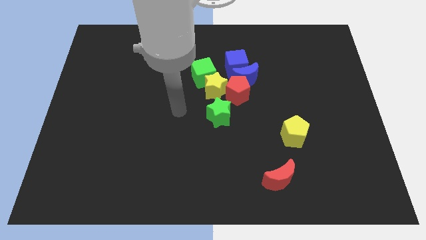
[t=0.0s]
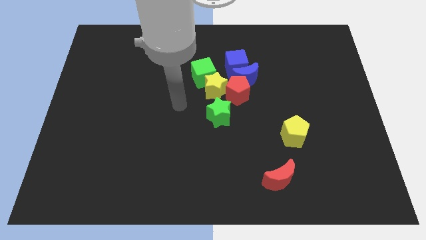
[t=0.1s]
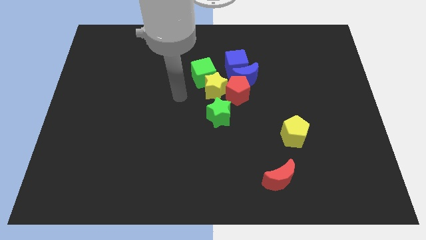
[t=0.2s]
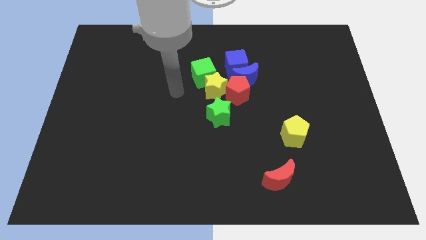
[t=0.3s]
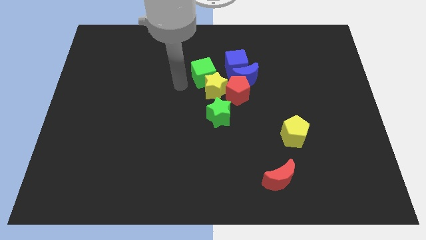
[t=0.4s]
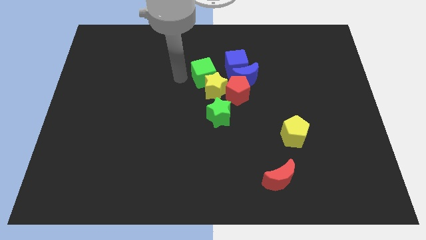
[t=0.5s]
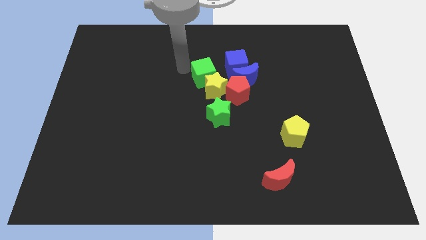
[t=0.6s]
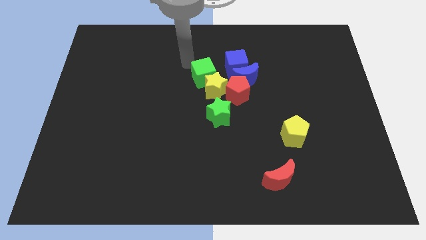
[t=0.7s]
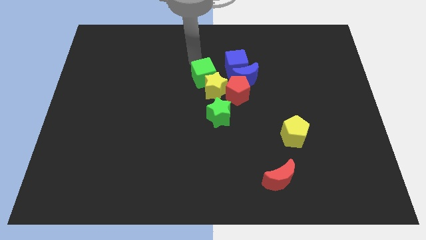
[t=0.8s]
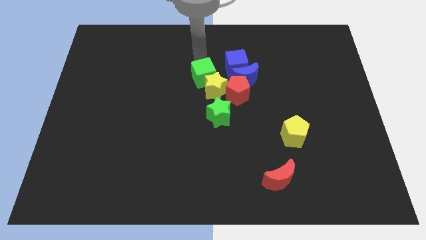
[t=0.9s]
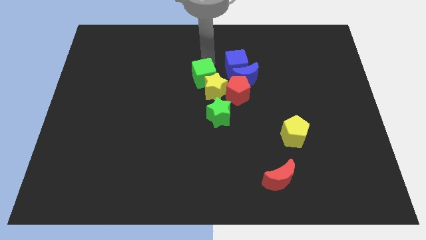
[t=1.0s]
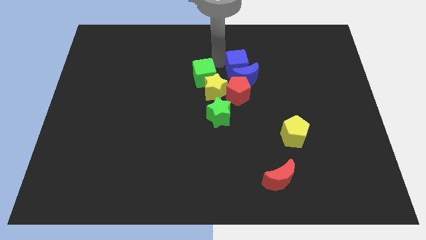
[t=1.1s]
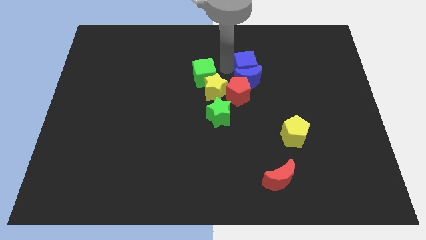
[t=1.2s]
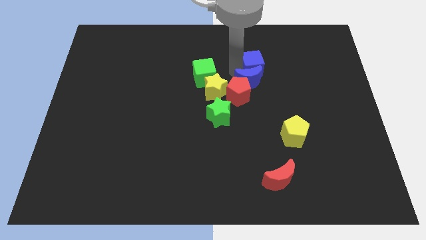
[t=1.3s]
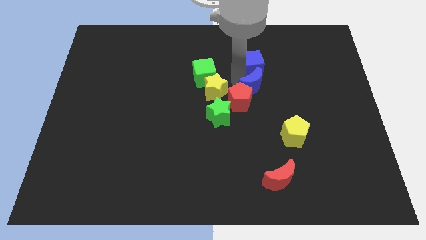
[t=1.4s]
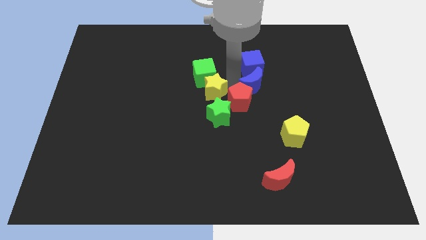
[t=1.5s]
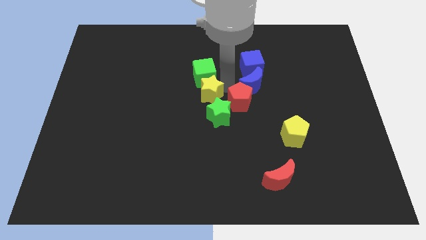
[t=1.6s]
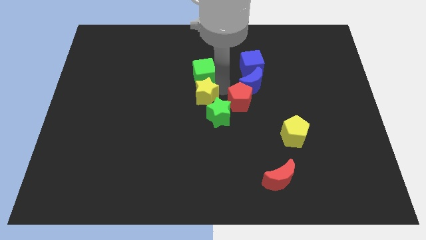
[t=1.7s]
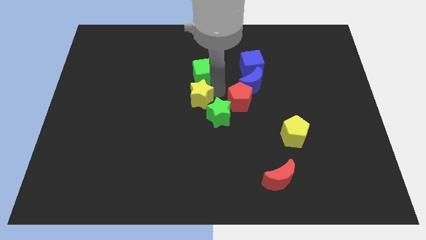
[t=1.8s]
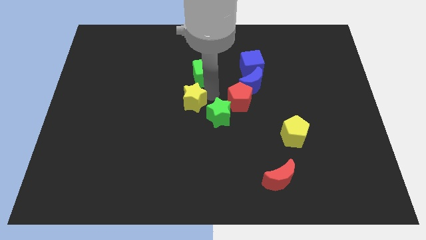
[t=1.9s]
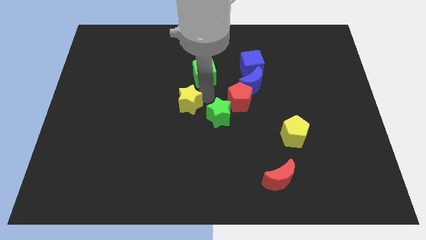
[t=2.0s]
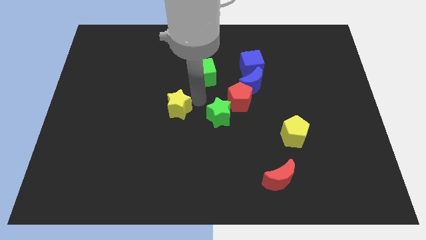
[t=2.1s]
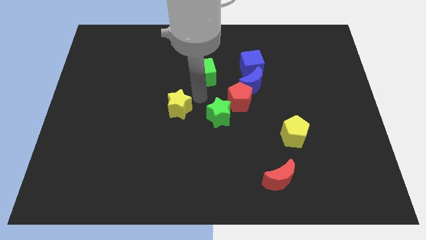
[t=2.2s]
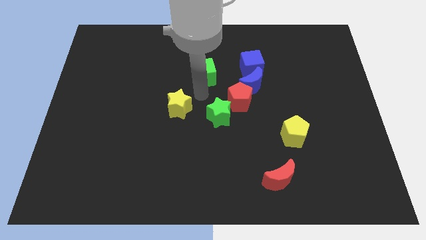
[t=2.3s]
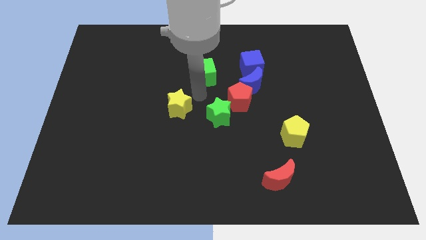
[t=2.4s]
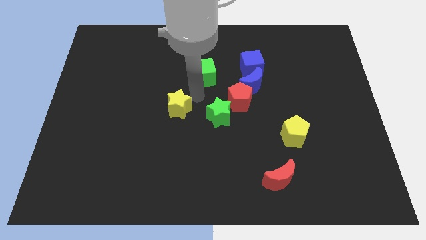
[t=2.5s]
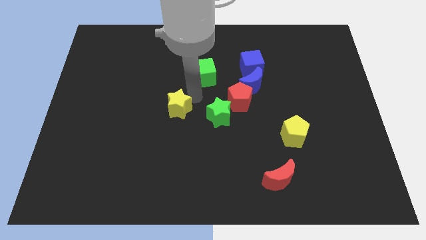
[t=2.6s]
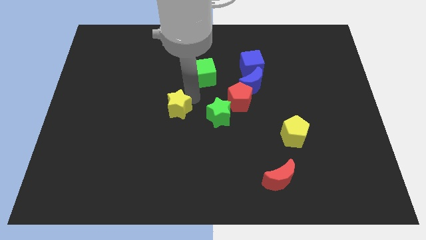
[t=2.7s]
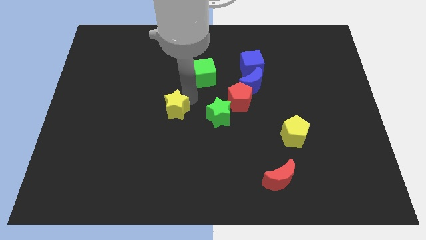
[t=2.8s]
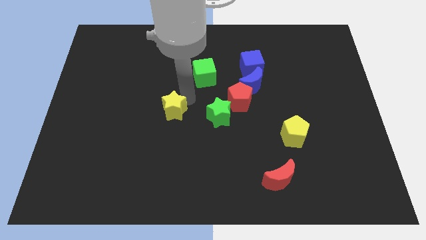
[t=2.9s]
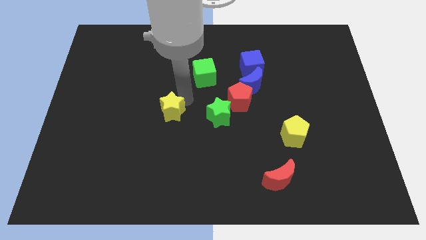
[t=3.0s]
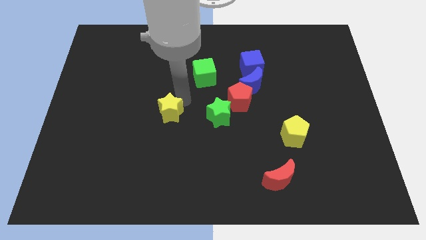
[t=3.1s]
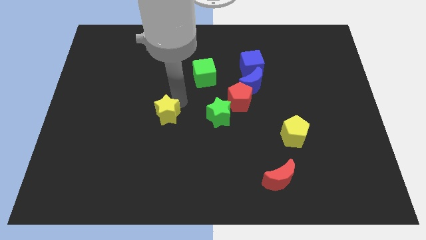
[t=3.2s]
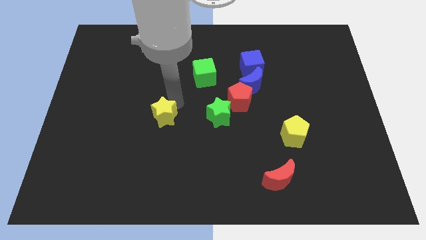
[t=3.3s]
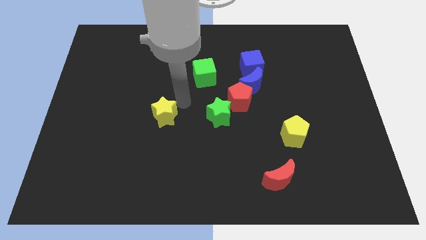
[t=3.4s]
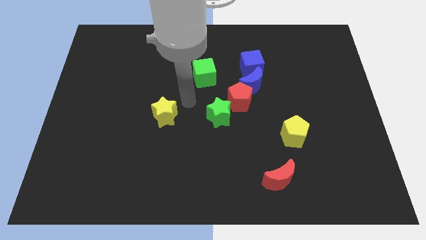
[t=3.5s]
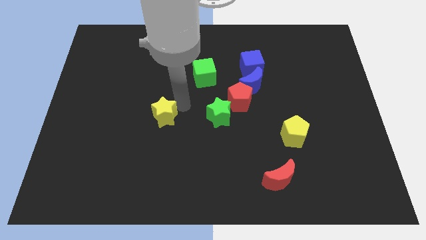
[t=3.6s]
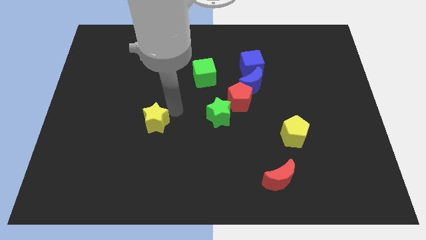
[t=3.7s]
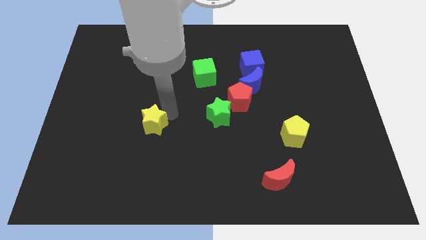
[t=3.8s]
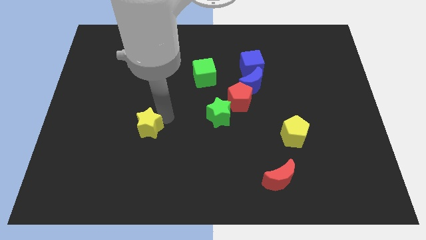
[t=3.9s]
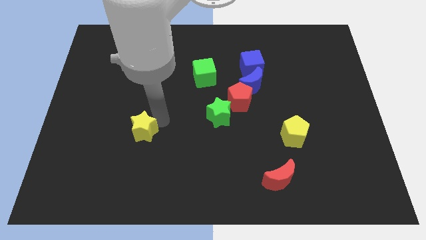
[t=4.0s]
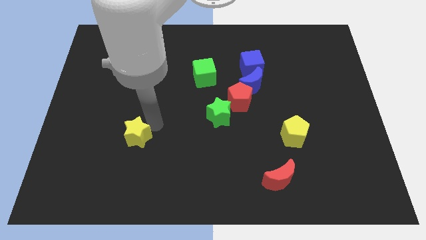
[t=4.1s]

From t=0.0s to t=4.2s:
slide the yellow star diagonally downwards and left

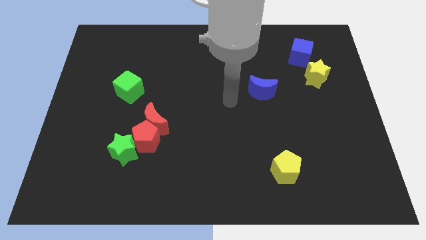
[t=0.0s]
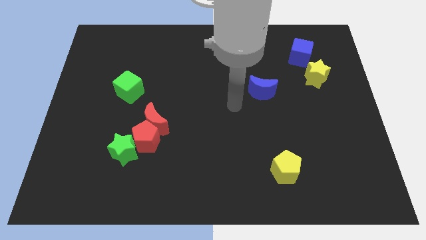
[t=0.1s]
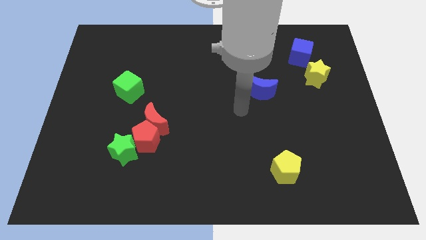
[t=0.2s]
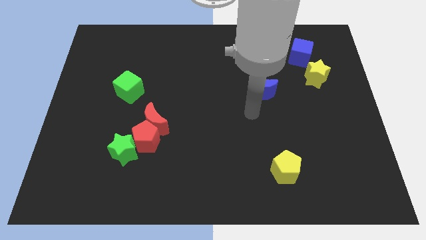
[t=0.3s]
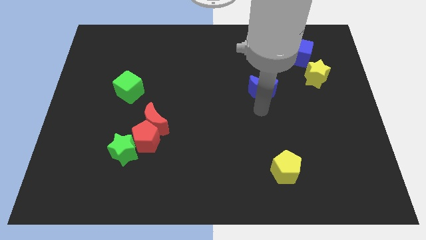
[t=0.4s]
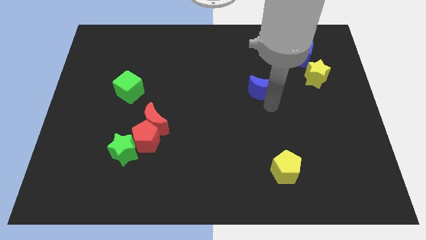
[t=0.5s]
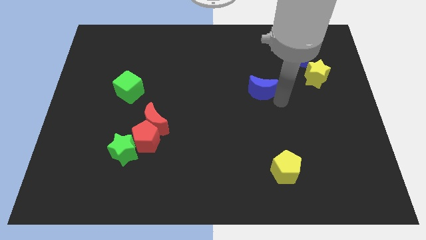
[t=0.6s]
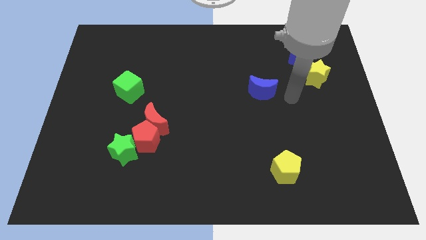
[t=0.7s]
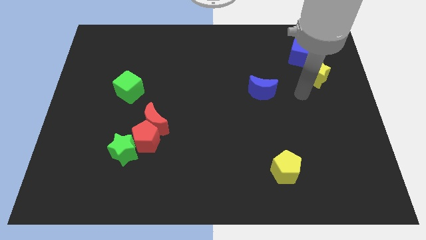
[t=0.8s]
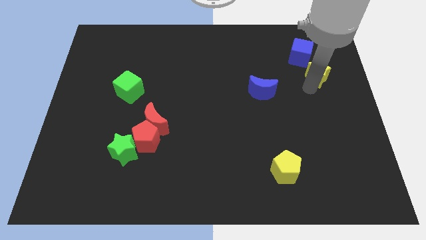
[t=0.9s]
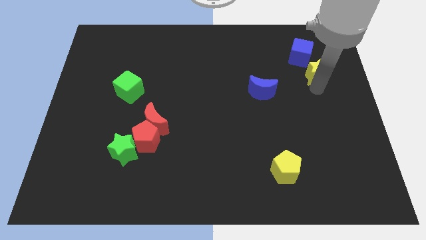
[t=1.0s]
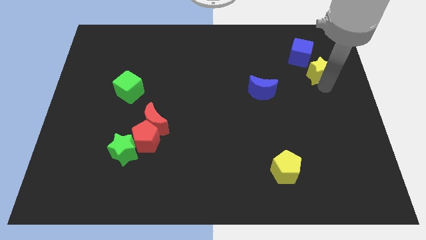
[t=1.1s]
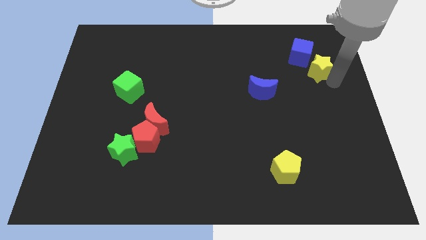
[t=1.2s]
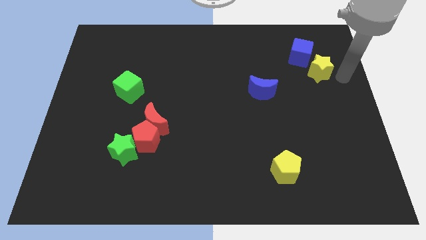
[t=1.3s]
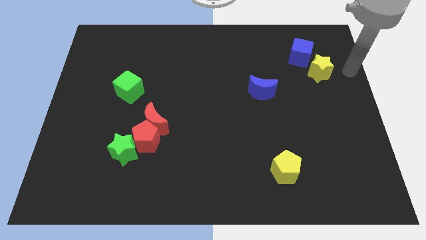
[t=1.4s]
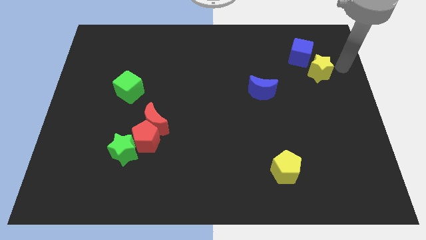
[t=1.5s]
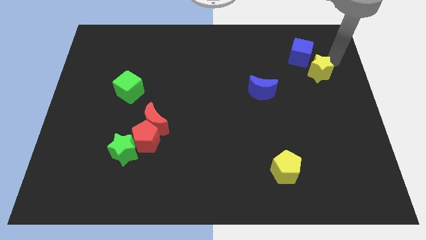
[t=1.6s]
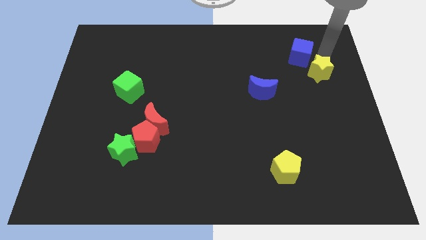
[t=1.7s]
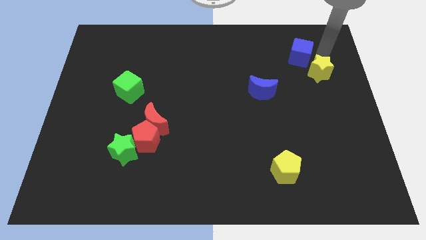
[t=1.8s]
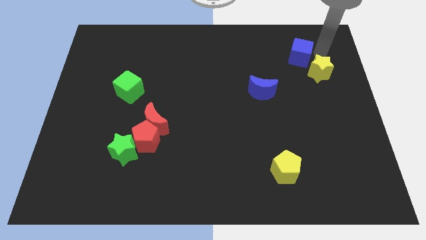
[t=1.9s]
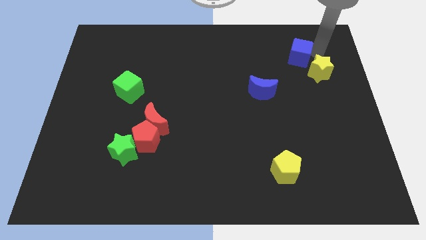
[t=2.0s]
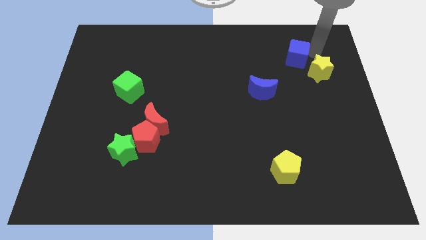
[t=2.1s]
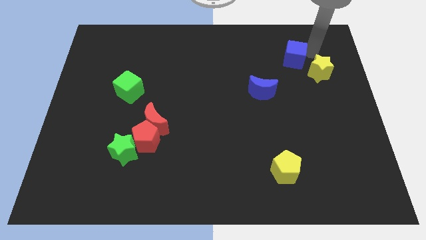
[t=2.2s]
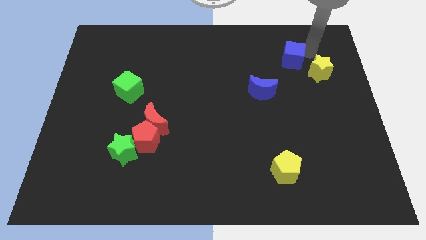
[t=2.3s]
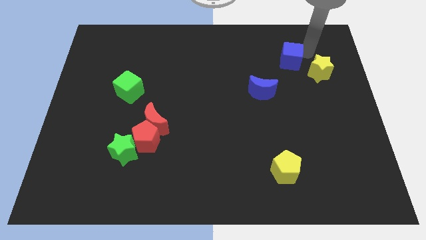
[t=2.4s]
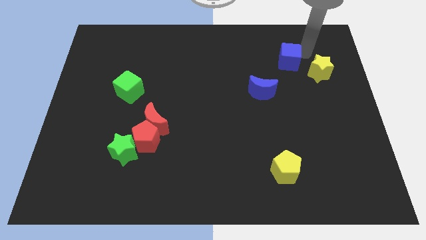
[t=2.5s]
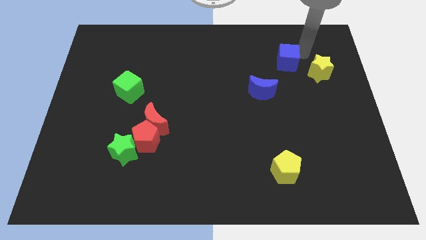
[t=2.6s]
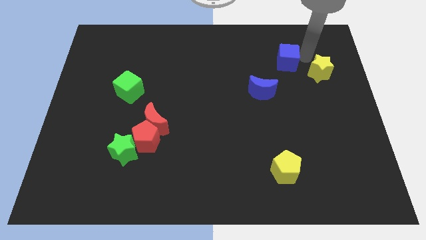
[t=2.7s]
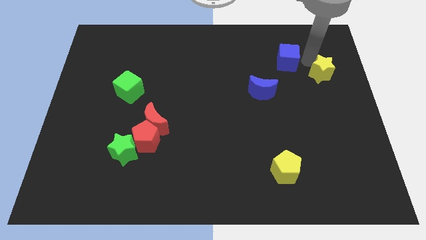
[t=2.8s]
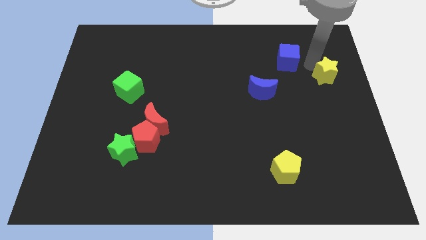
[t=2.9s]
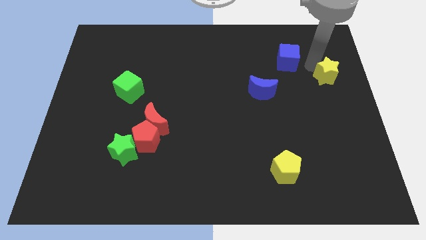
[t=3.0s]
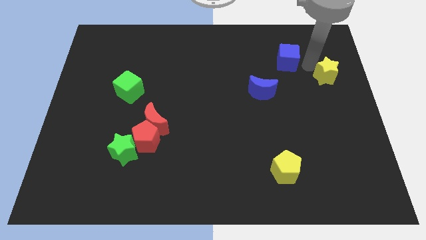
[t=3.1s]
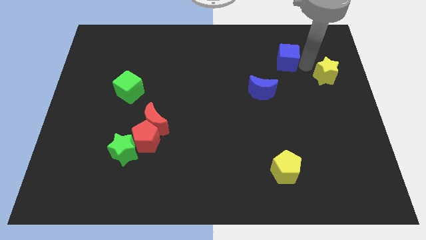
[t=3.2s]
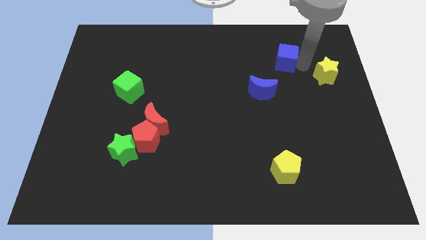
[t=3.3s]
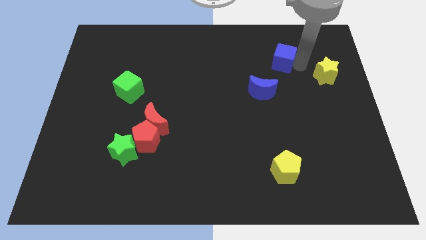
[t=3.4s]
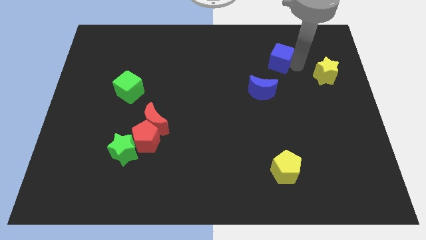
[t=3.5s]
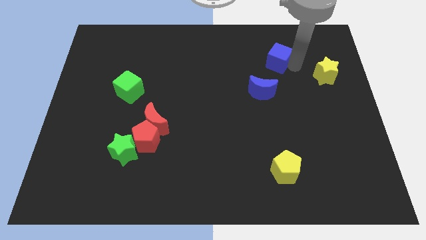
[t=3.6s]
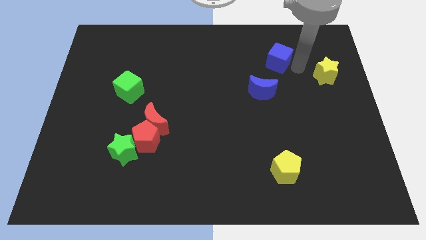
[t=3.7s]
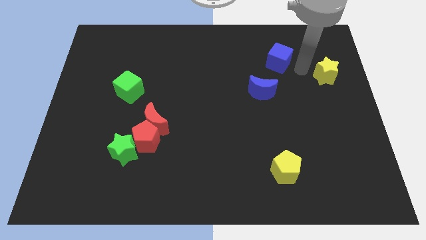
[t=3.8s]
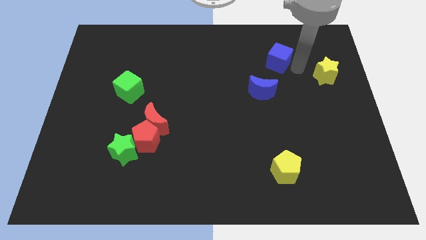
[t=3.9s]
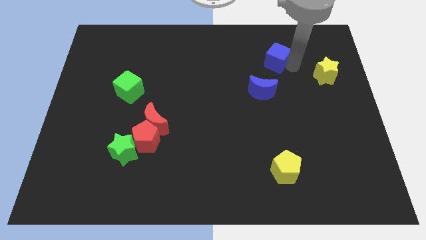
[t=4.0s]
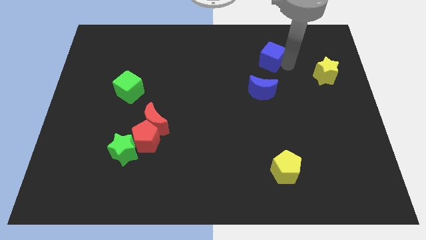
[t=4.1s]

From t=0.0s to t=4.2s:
slide the blue cube a bit left
